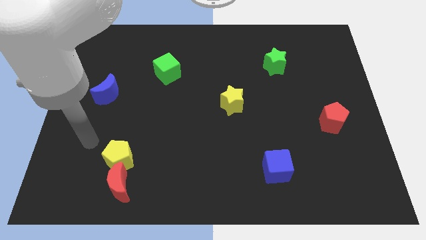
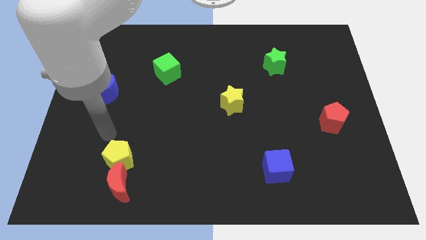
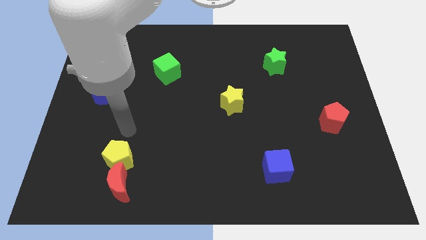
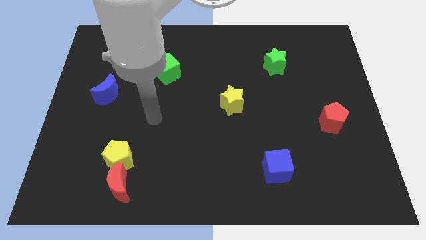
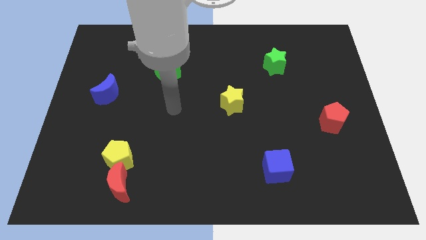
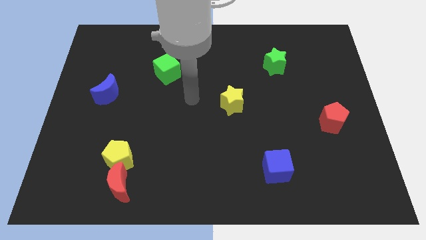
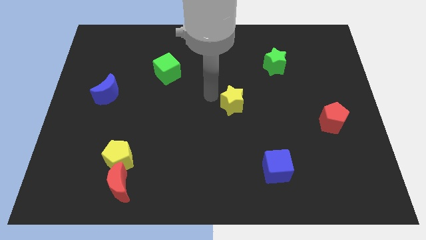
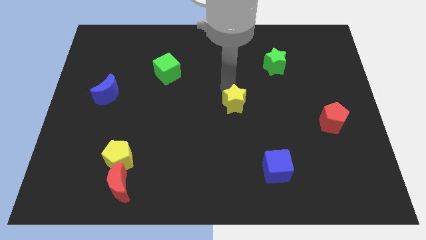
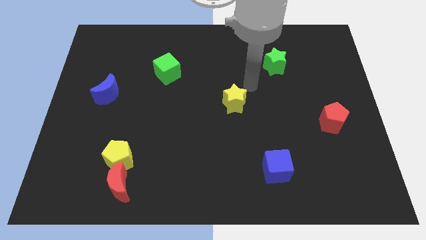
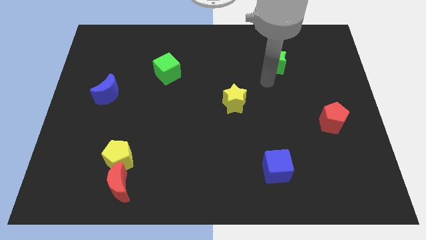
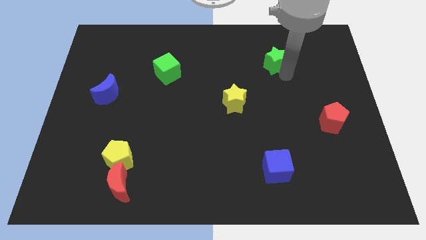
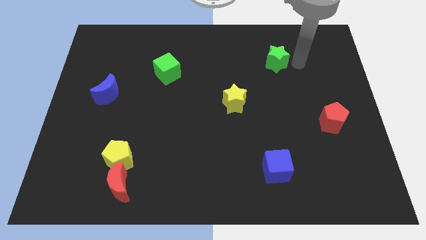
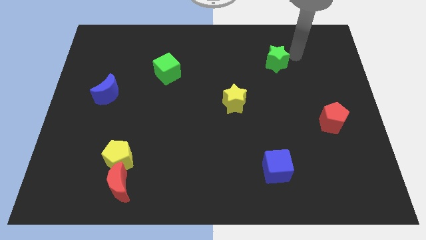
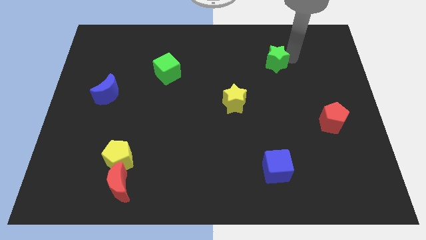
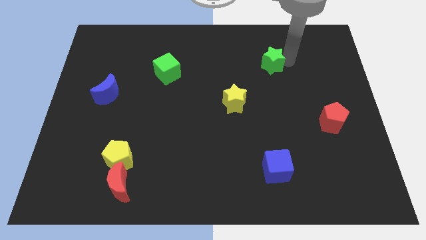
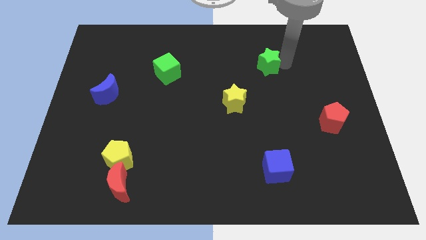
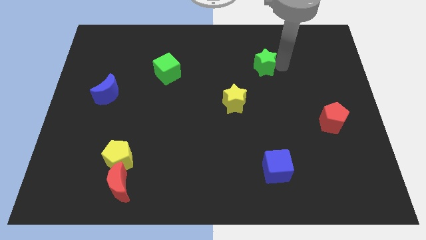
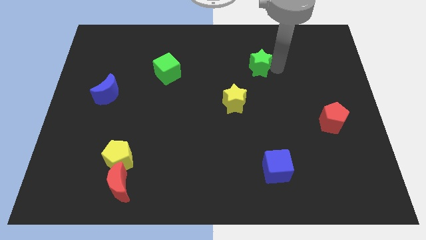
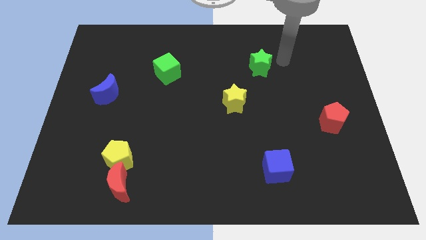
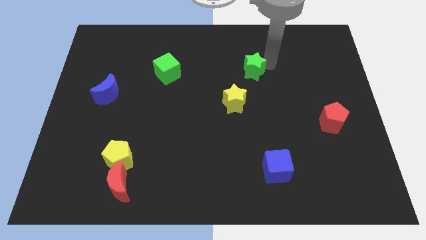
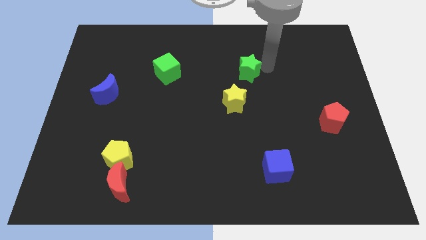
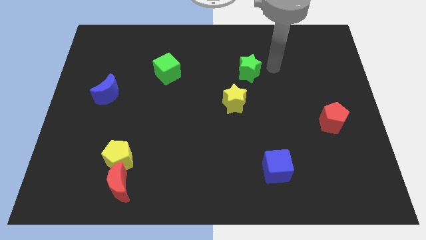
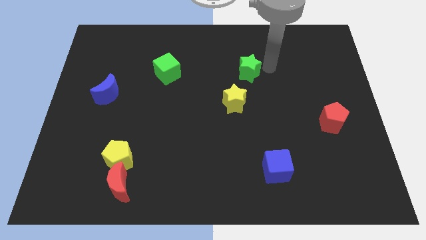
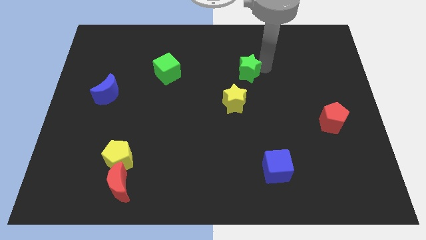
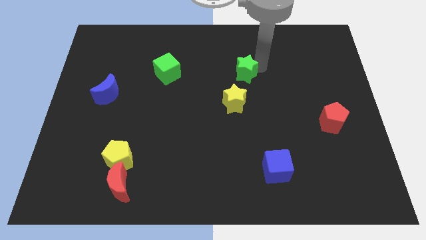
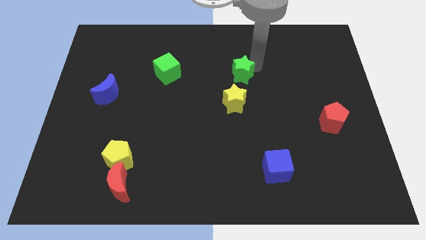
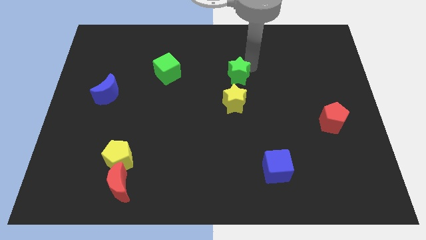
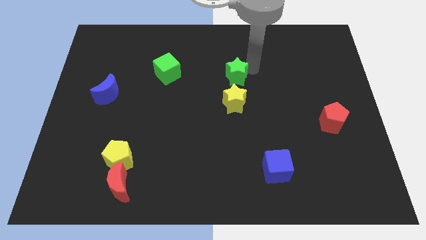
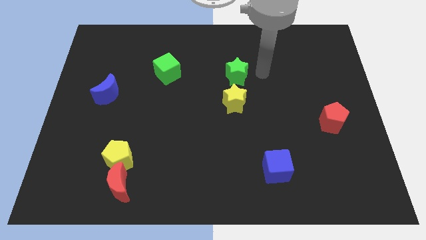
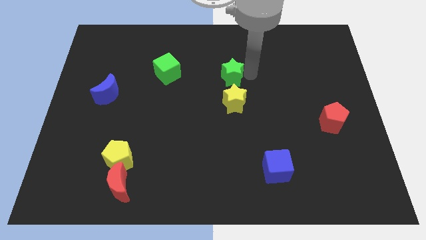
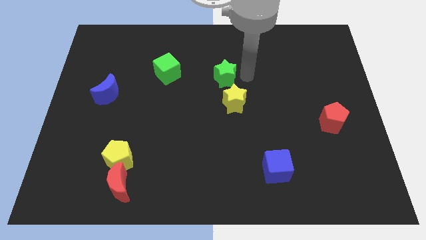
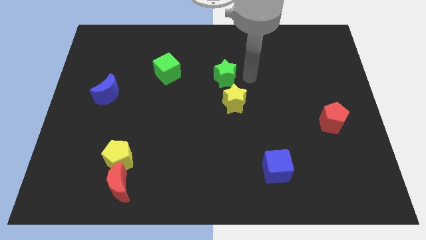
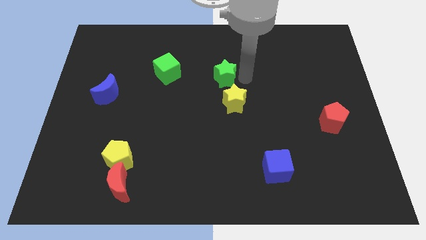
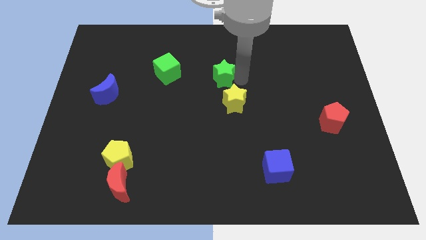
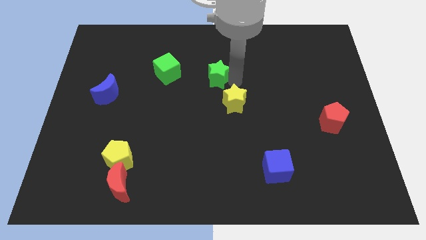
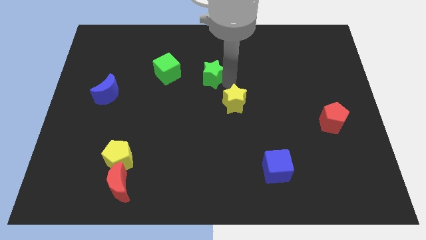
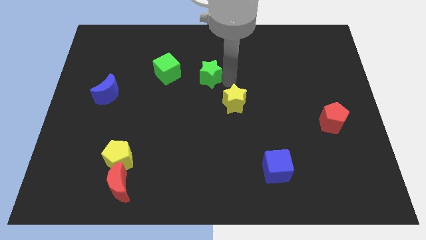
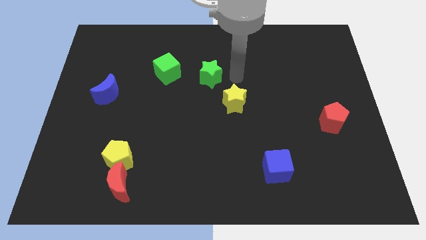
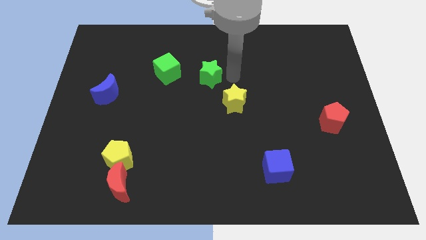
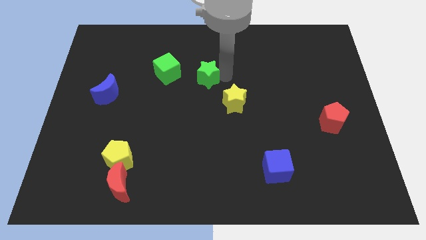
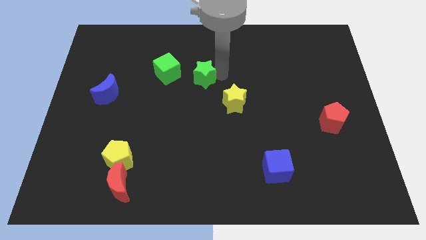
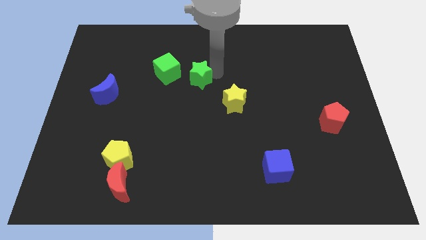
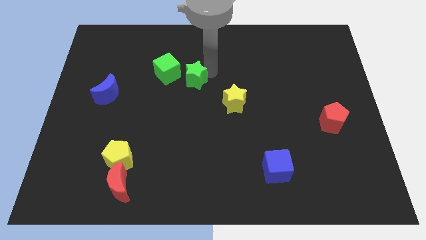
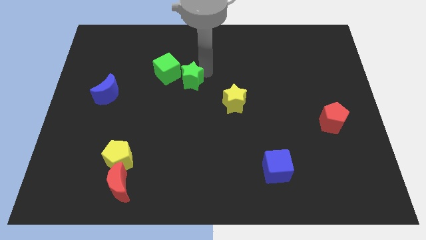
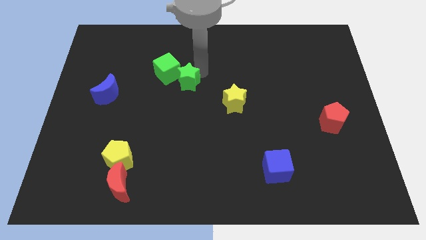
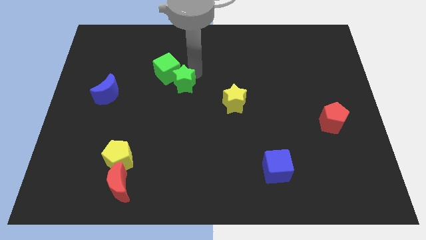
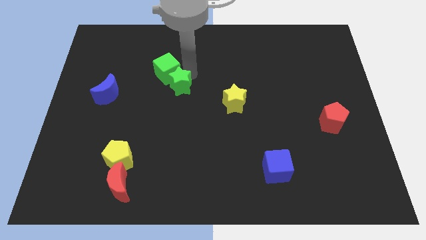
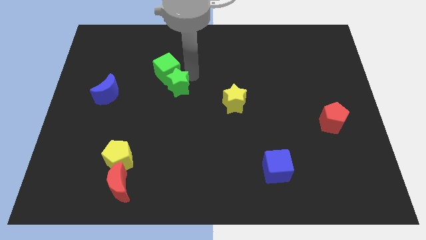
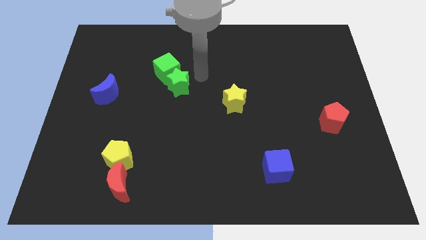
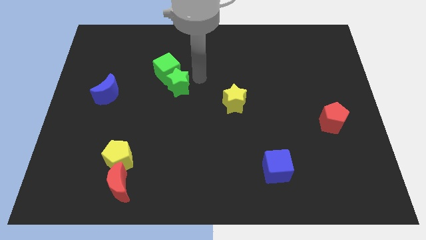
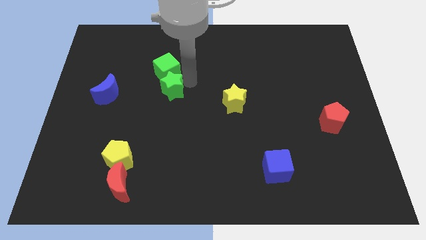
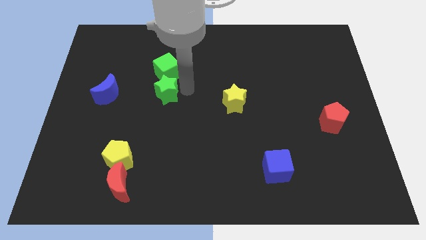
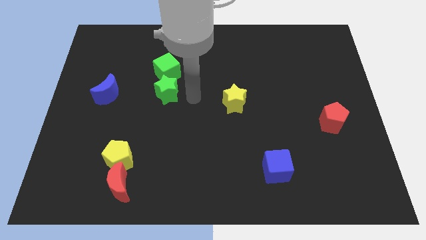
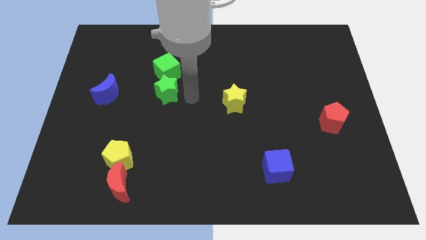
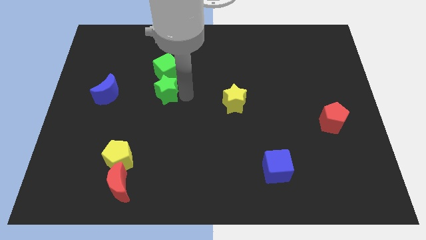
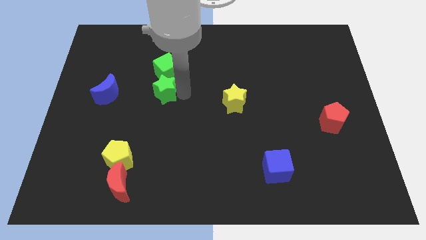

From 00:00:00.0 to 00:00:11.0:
put the green star diagonally down and to the left of the green cube
